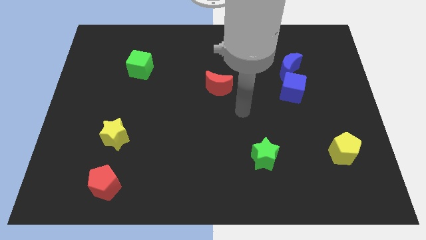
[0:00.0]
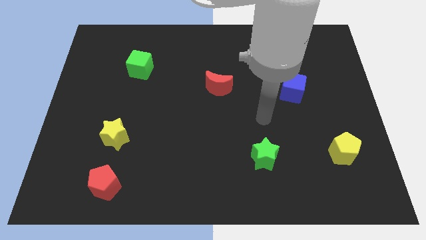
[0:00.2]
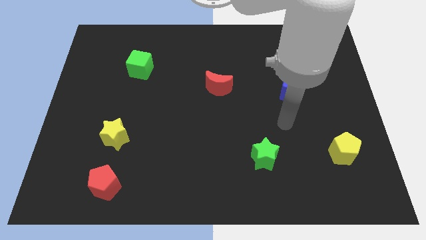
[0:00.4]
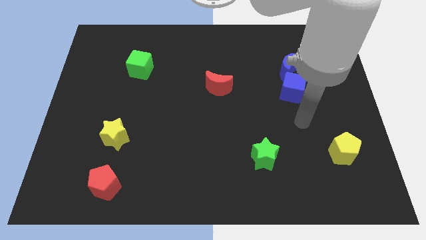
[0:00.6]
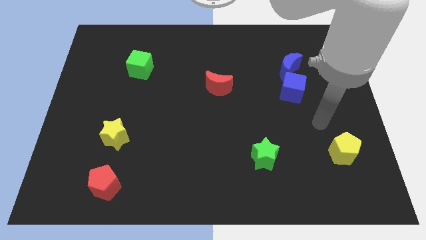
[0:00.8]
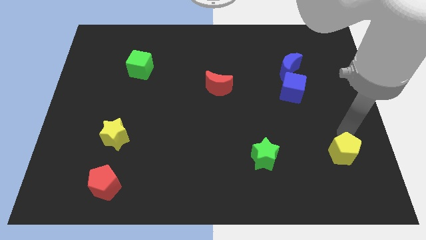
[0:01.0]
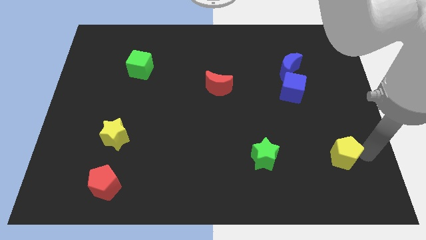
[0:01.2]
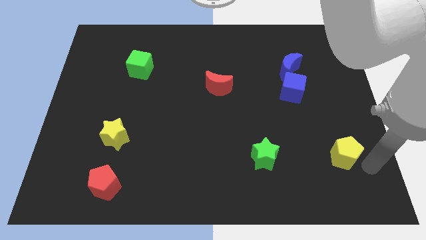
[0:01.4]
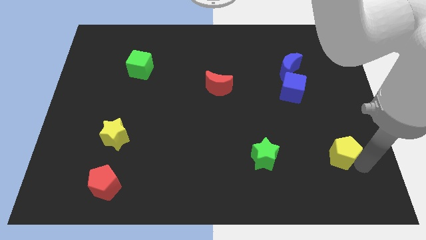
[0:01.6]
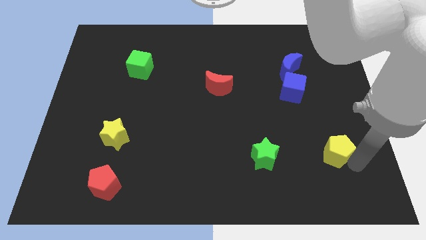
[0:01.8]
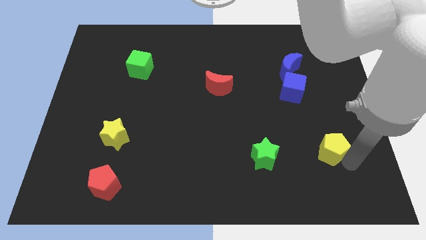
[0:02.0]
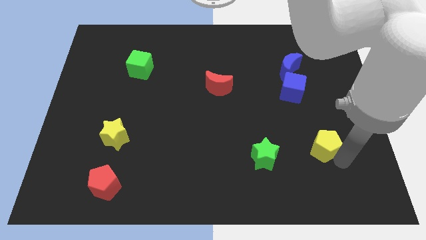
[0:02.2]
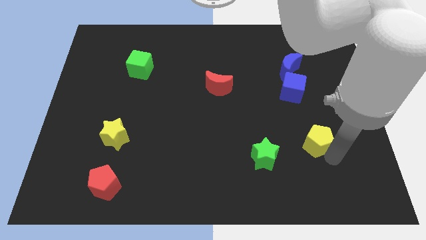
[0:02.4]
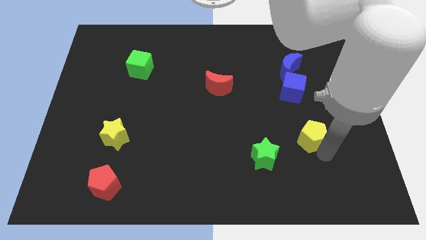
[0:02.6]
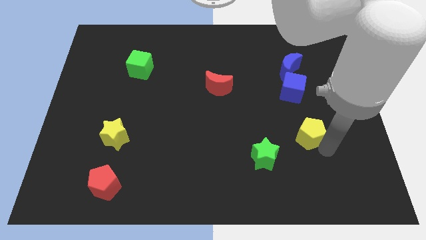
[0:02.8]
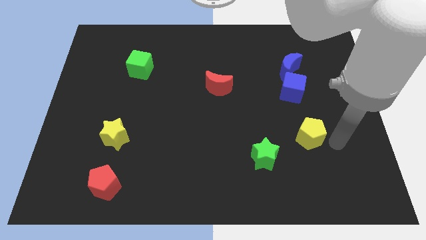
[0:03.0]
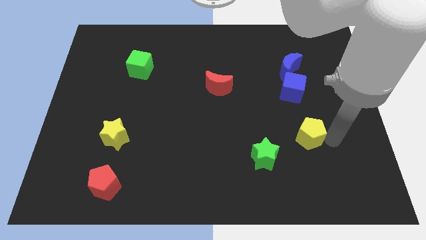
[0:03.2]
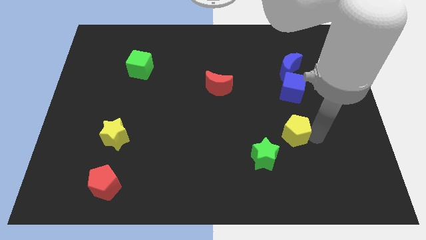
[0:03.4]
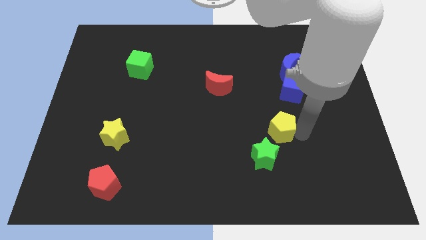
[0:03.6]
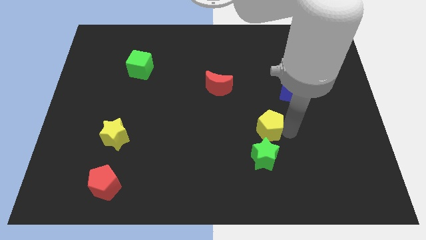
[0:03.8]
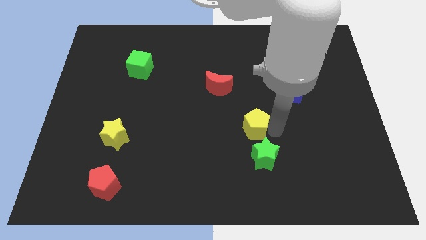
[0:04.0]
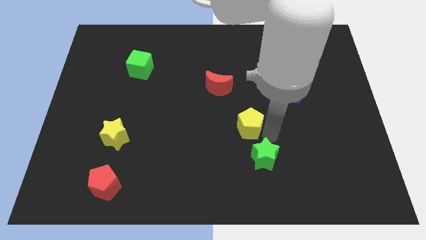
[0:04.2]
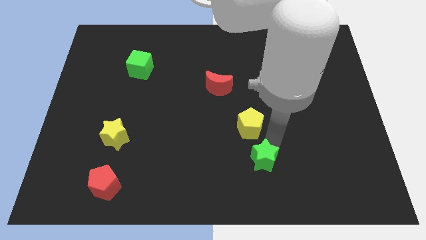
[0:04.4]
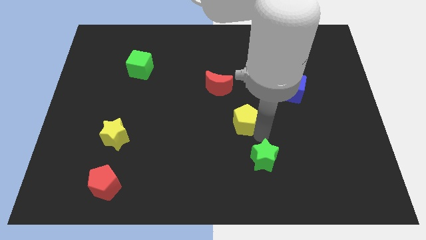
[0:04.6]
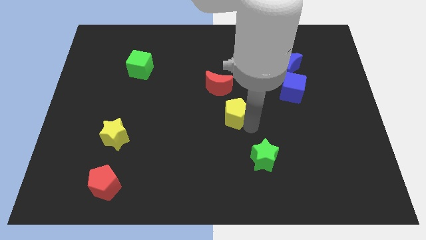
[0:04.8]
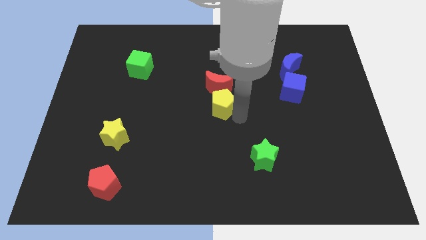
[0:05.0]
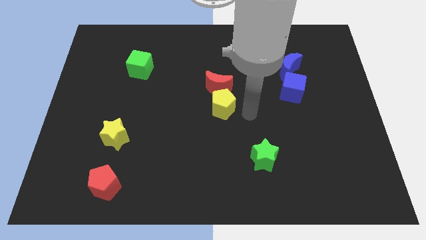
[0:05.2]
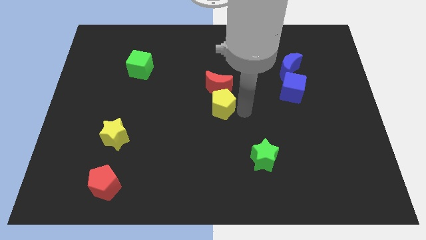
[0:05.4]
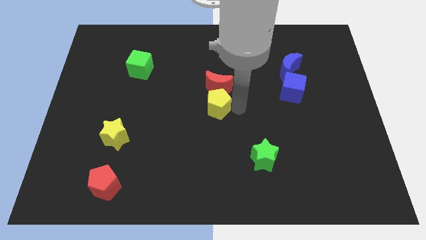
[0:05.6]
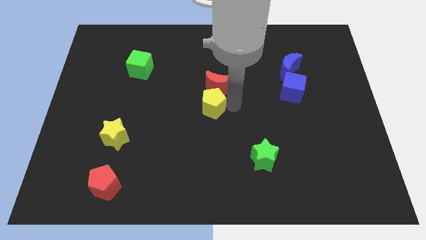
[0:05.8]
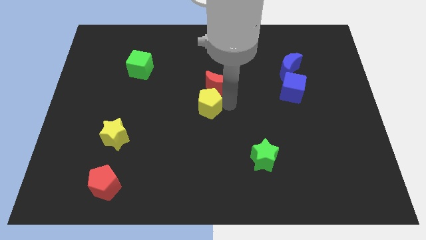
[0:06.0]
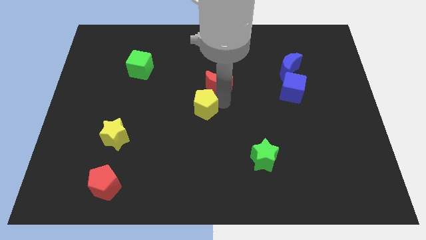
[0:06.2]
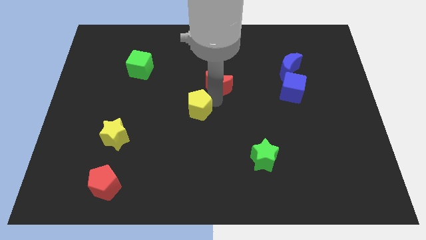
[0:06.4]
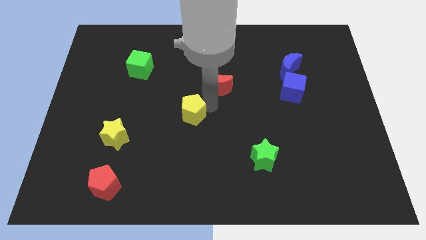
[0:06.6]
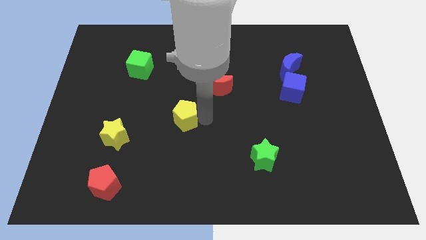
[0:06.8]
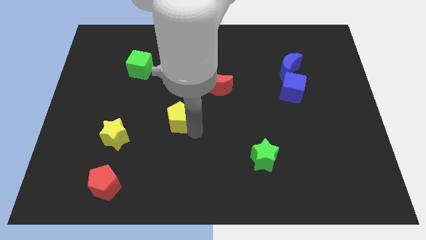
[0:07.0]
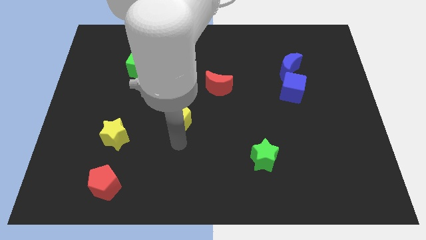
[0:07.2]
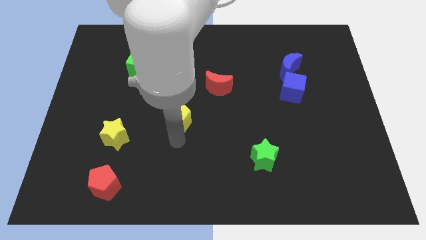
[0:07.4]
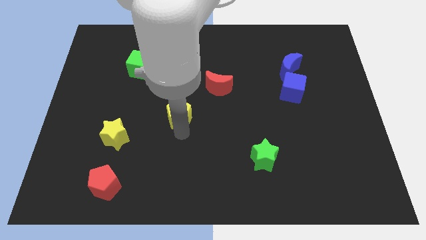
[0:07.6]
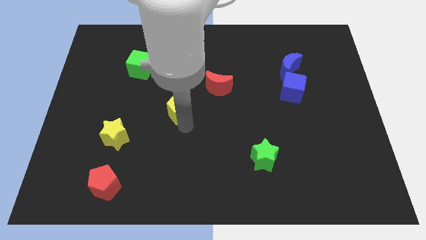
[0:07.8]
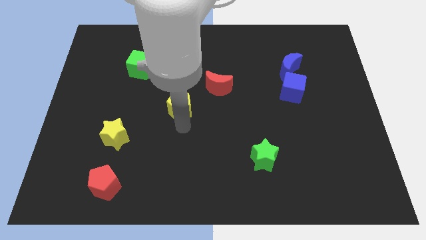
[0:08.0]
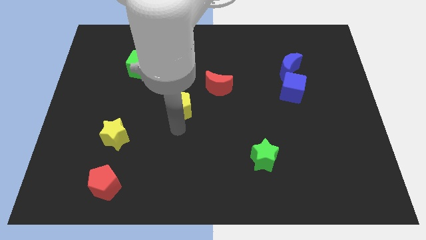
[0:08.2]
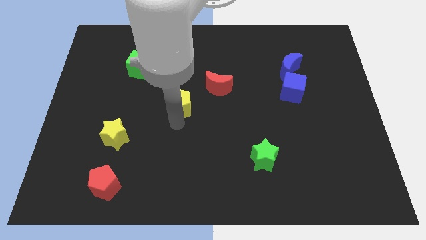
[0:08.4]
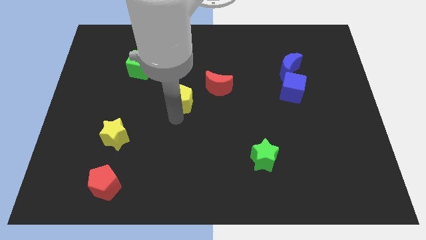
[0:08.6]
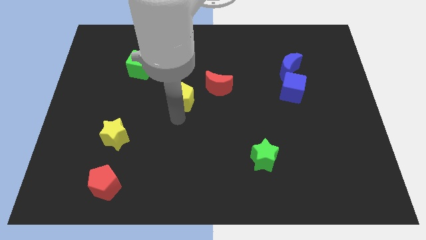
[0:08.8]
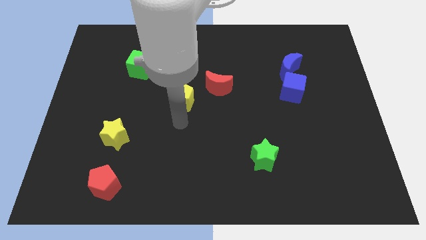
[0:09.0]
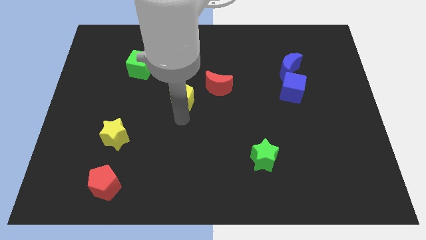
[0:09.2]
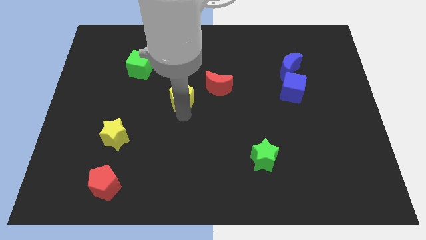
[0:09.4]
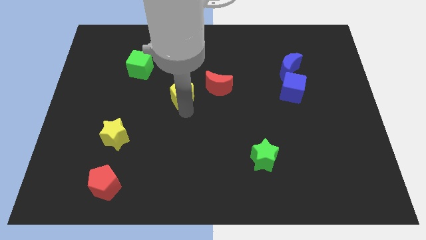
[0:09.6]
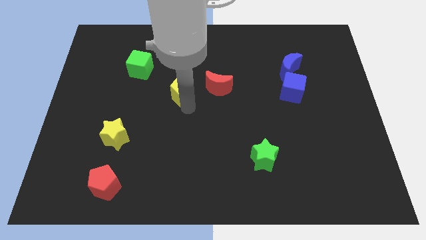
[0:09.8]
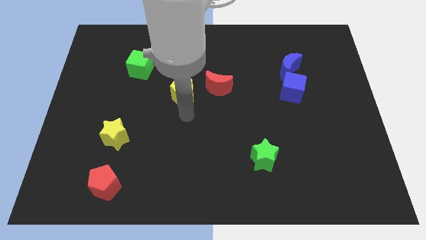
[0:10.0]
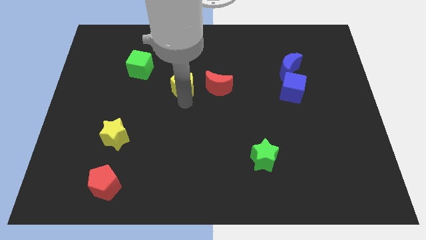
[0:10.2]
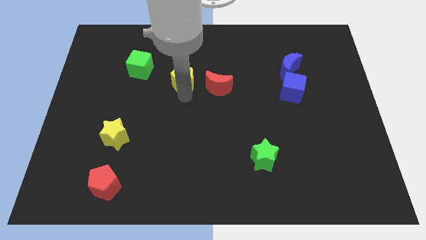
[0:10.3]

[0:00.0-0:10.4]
move the yellow pentagon to the right side of the green cube

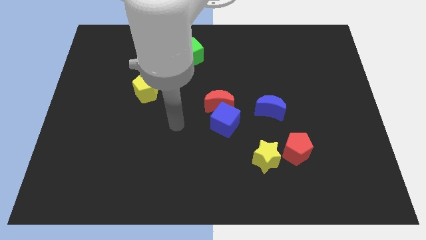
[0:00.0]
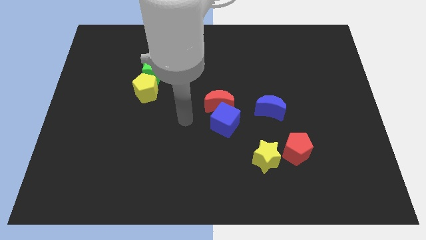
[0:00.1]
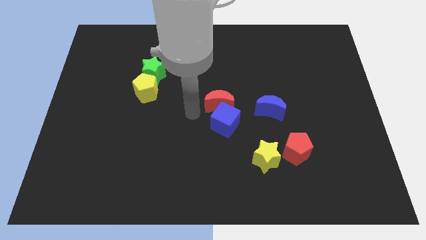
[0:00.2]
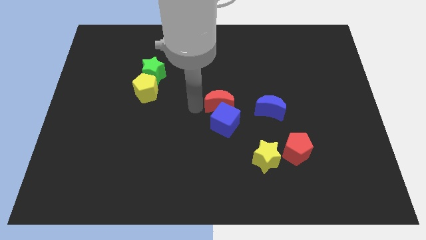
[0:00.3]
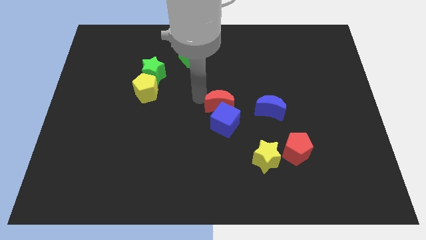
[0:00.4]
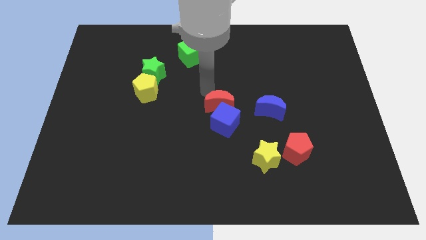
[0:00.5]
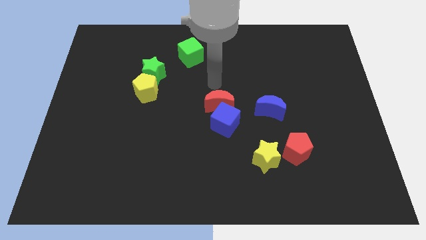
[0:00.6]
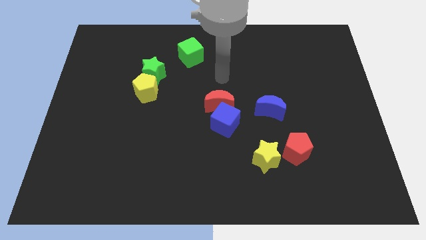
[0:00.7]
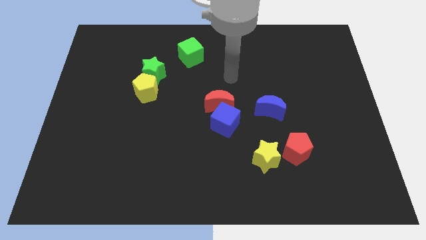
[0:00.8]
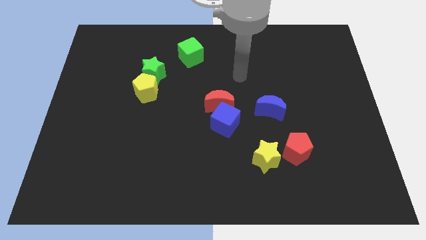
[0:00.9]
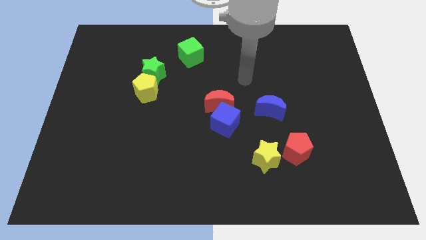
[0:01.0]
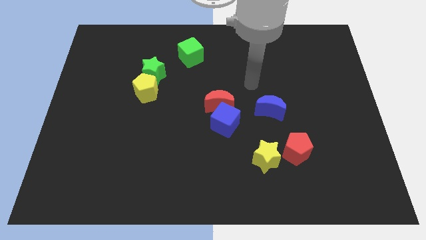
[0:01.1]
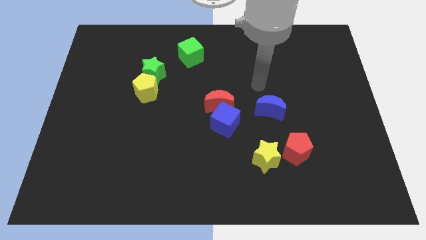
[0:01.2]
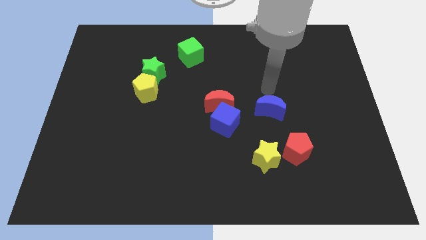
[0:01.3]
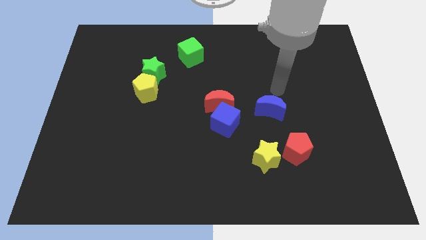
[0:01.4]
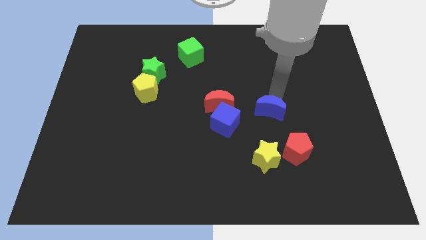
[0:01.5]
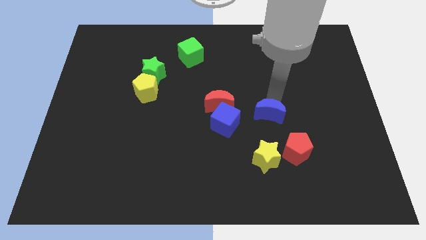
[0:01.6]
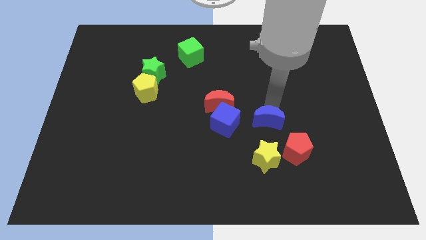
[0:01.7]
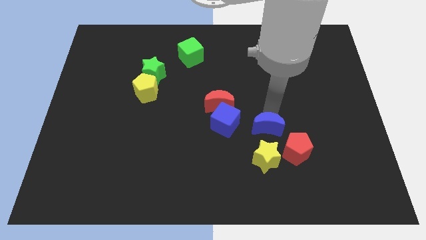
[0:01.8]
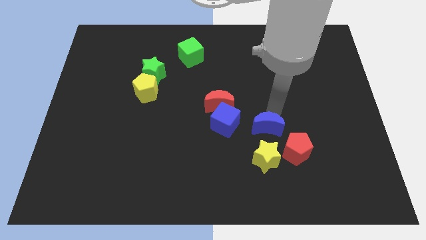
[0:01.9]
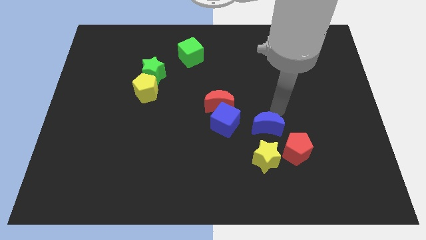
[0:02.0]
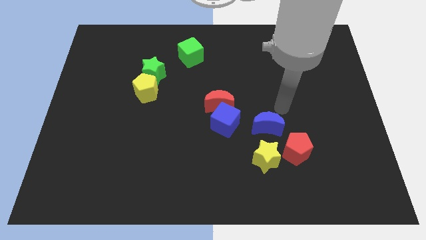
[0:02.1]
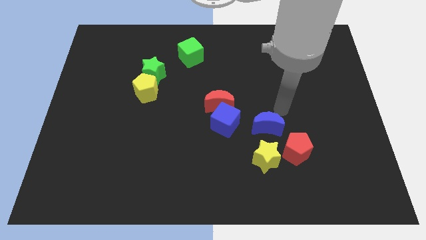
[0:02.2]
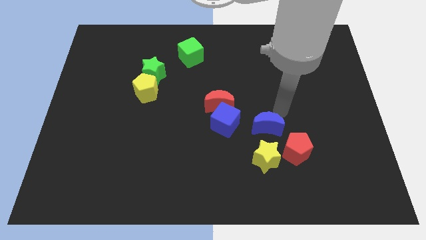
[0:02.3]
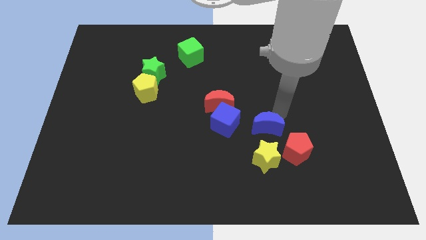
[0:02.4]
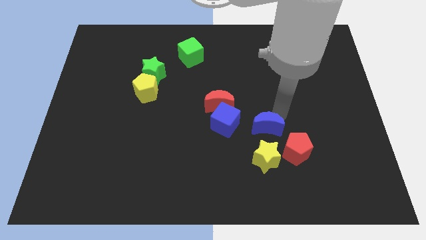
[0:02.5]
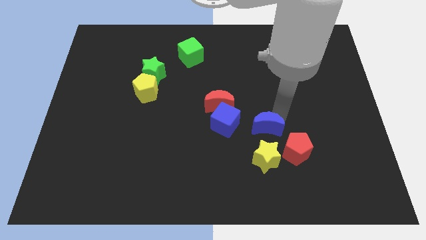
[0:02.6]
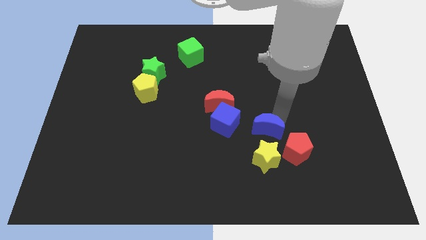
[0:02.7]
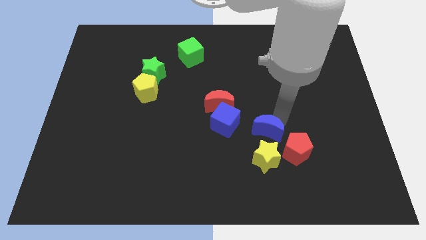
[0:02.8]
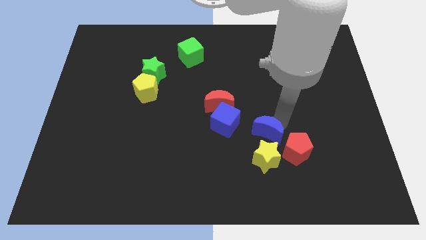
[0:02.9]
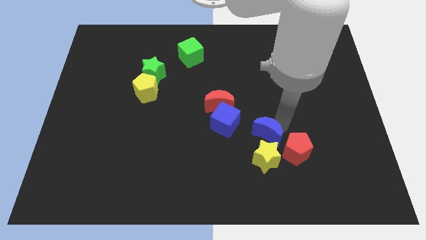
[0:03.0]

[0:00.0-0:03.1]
slide the blue moon left of the red pentagon
